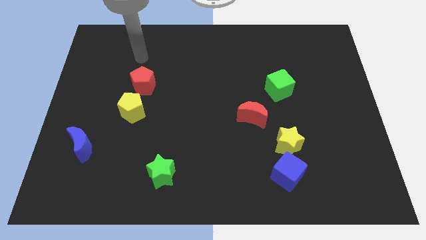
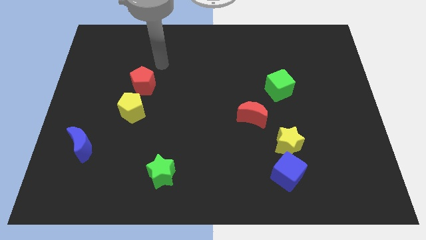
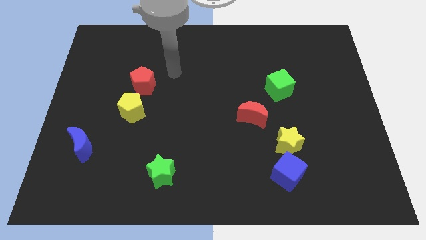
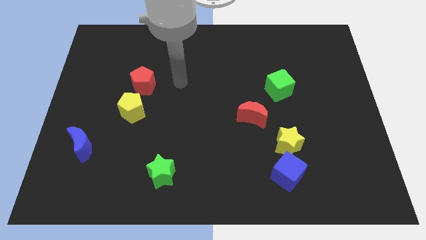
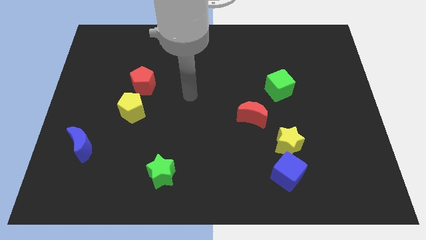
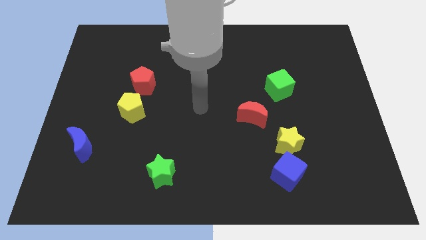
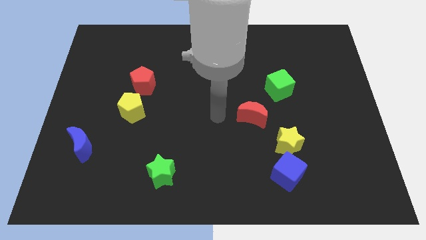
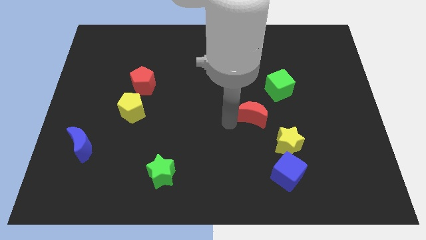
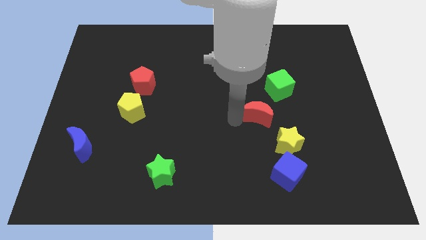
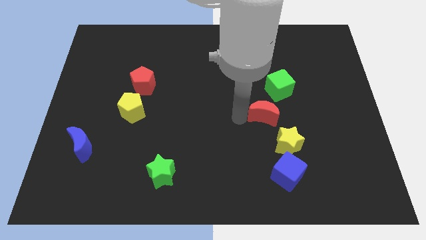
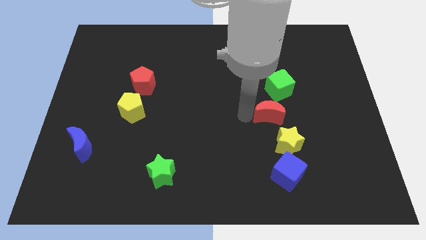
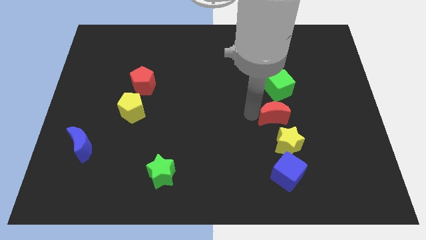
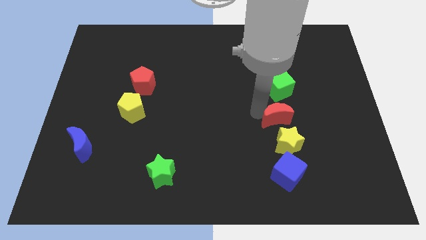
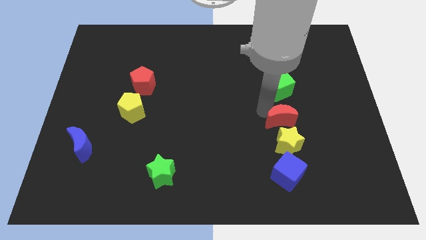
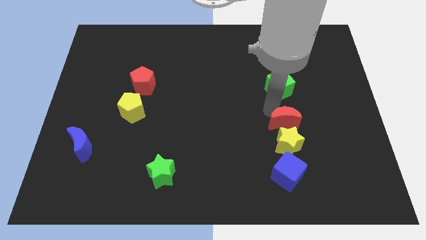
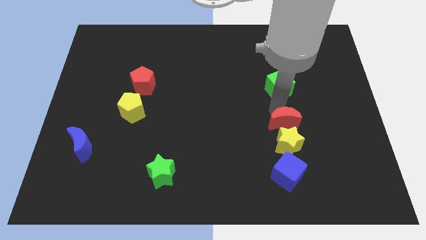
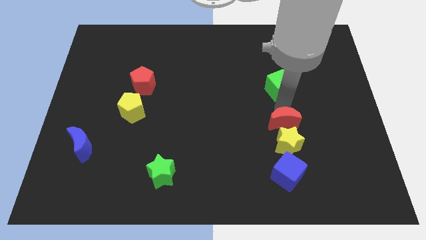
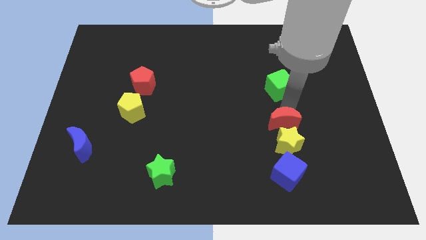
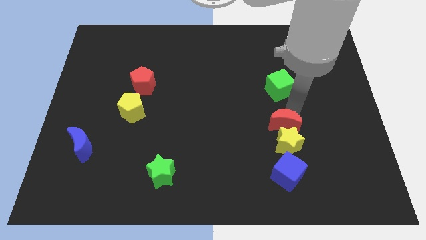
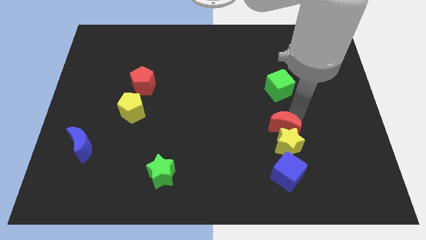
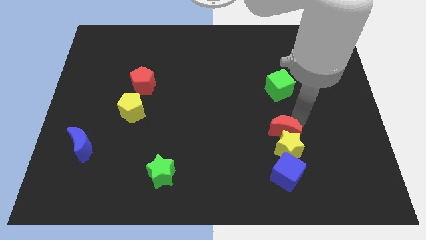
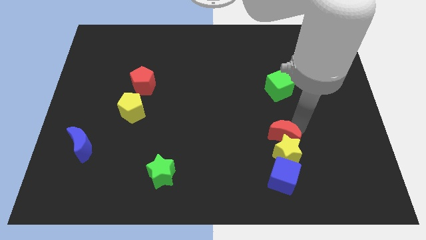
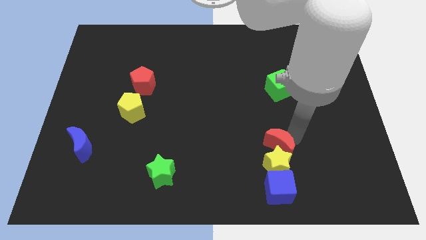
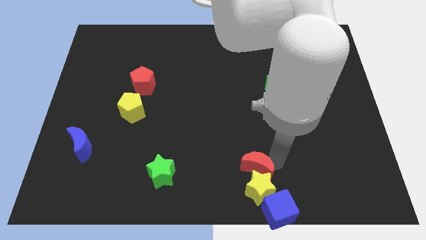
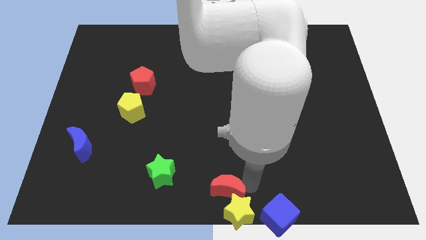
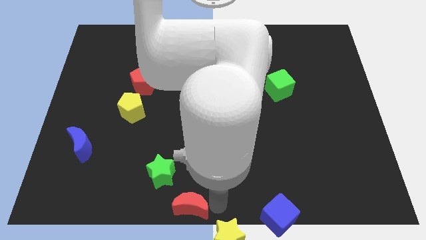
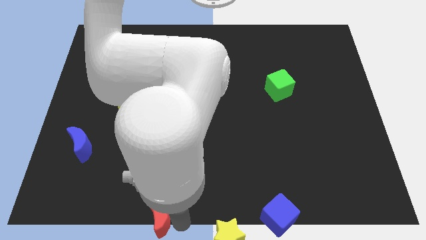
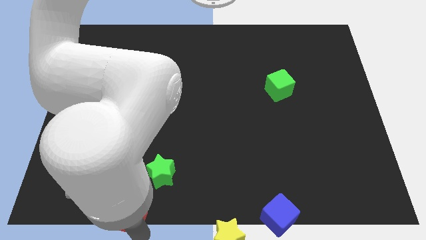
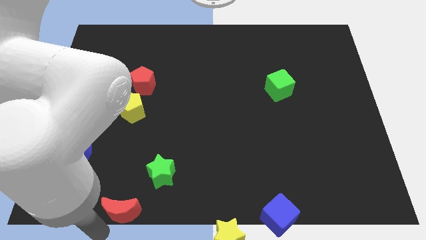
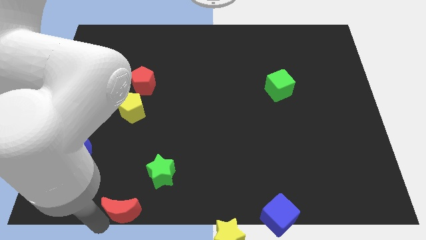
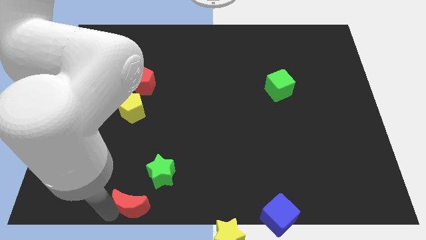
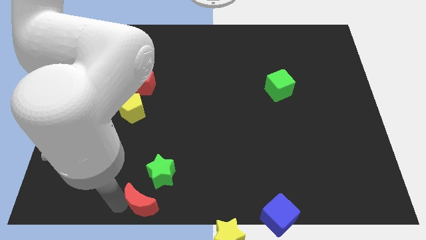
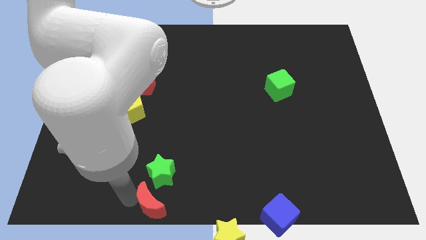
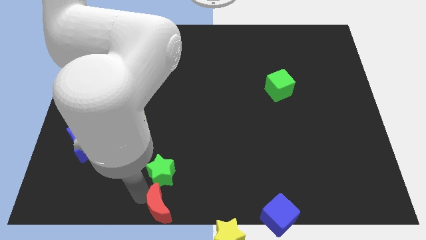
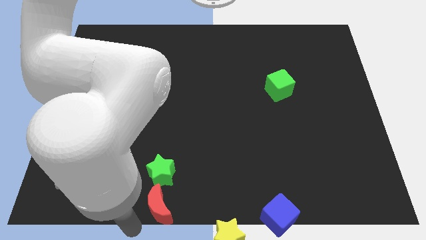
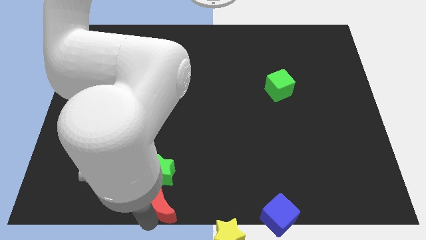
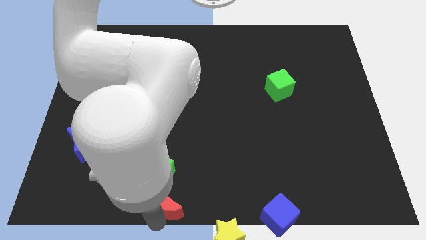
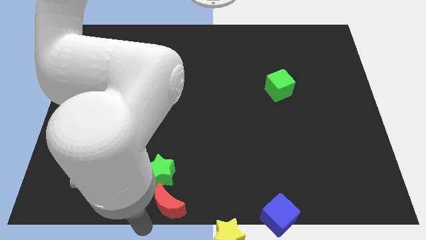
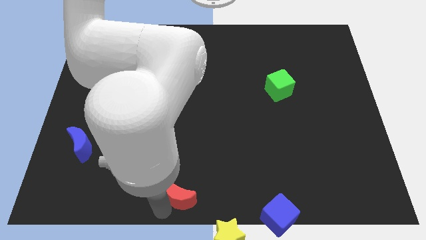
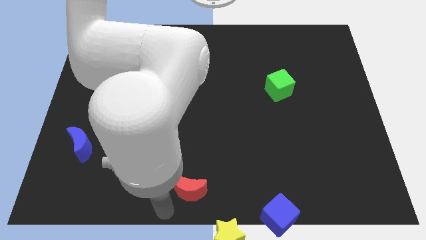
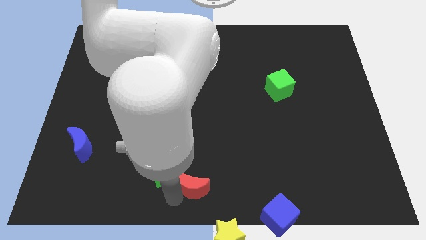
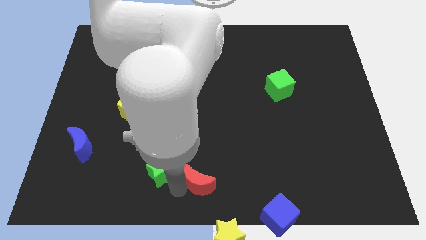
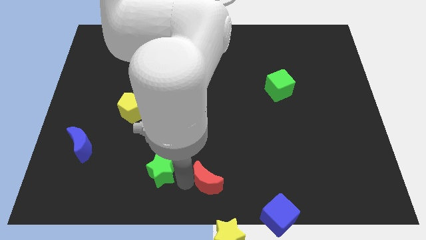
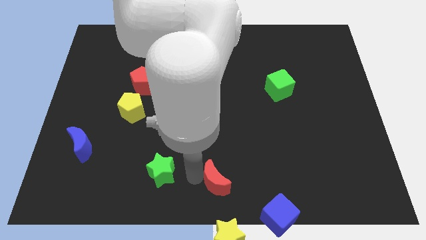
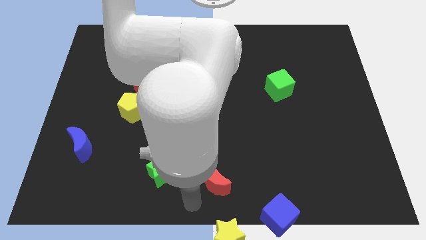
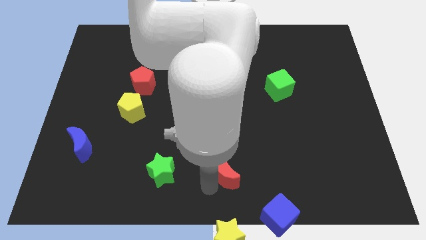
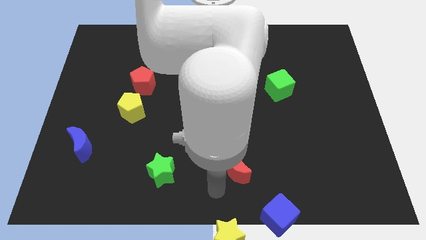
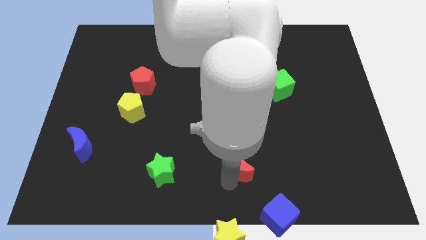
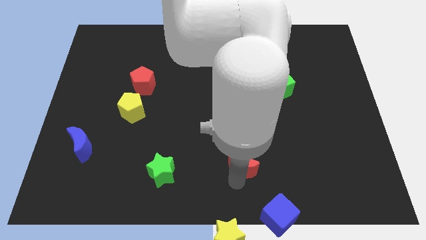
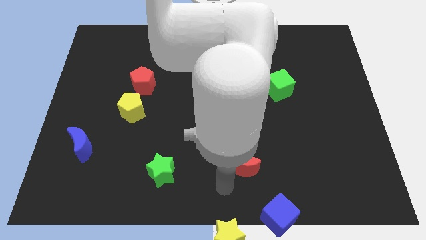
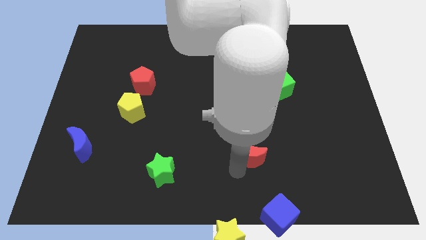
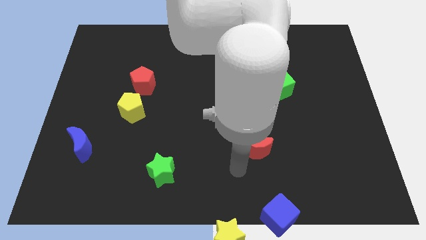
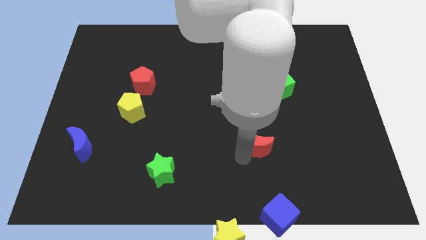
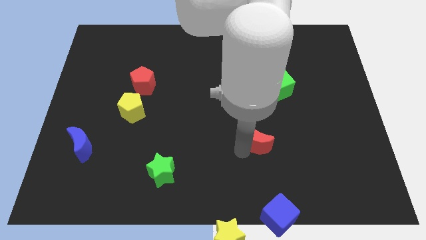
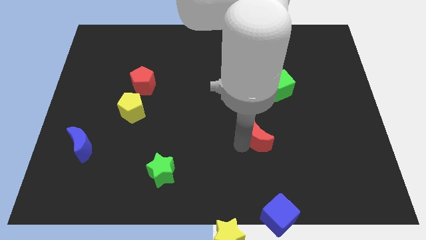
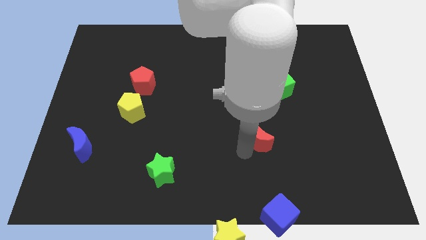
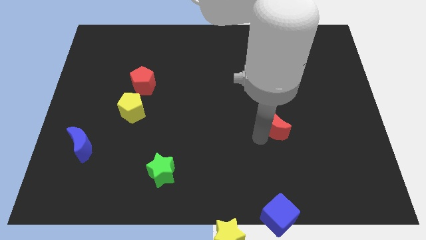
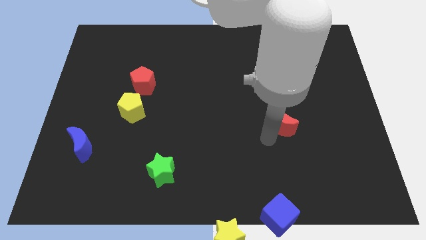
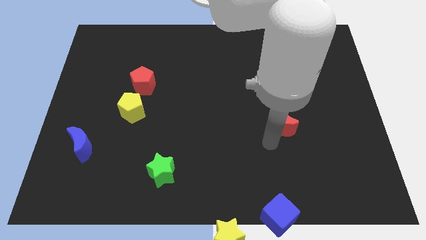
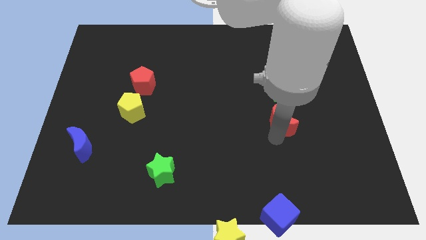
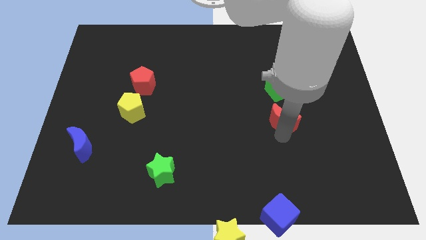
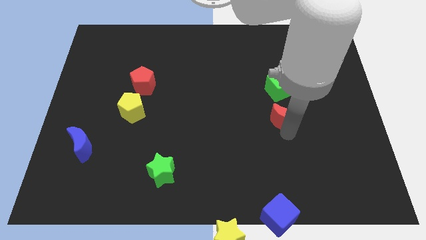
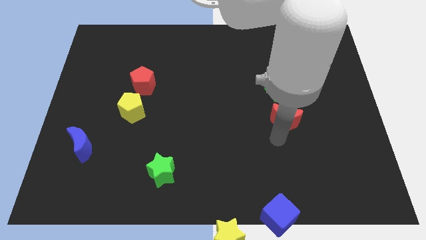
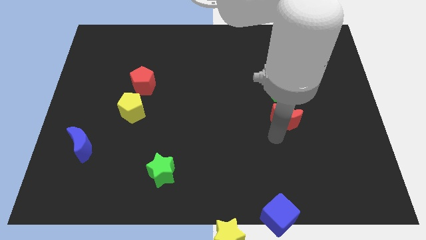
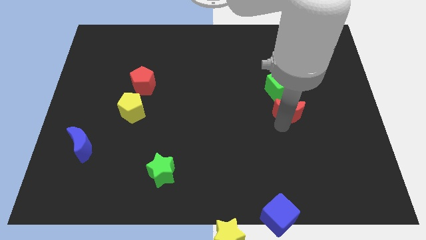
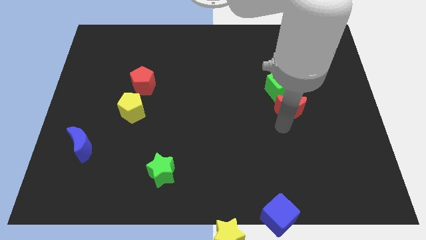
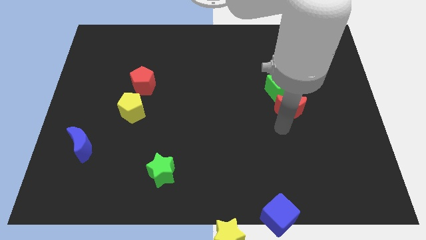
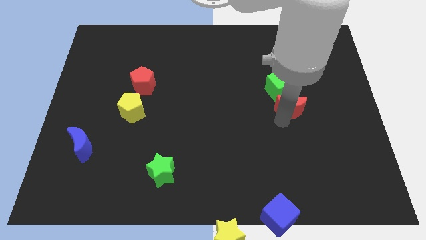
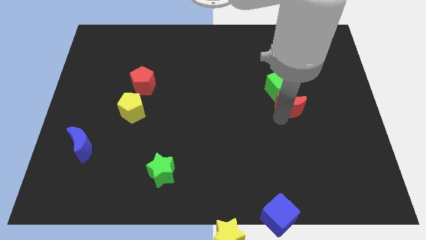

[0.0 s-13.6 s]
push the red moon a little upwards and to the right diagonally

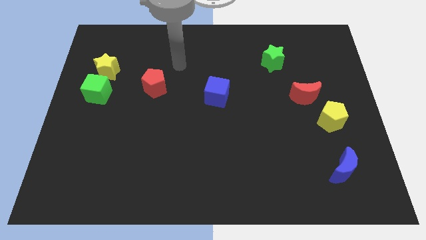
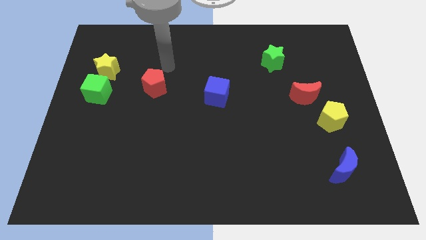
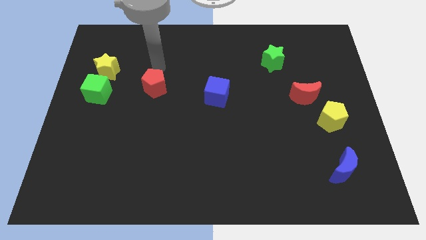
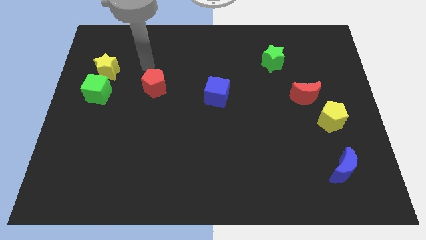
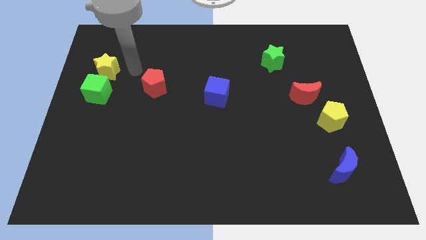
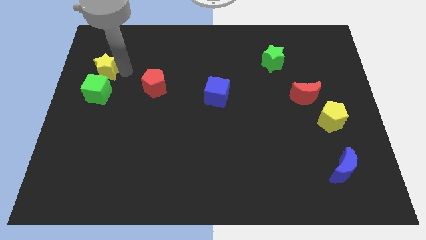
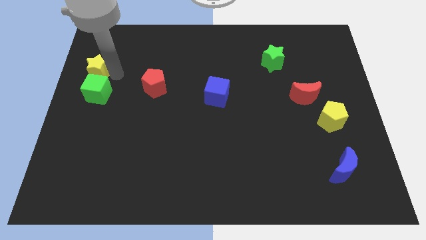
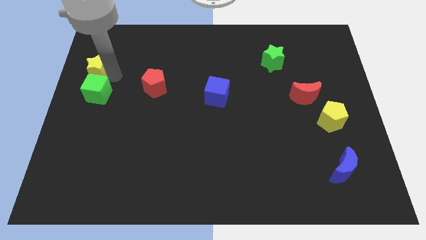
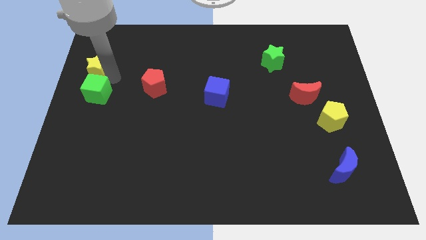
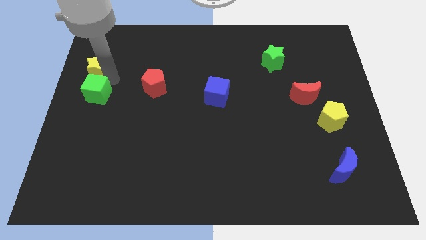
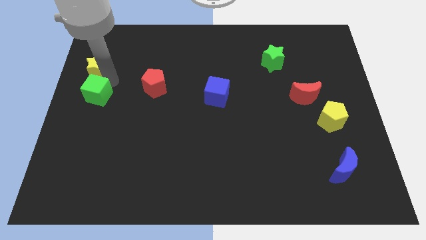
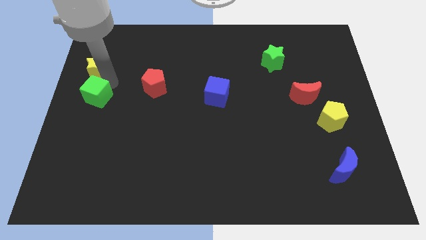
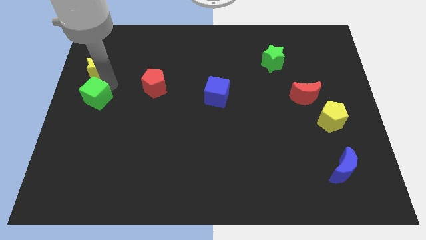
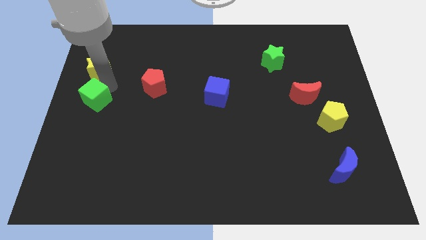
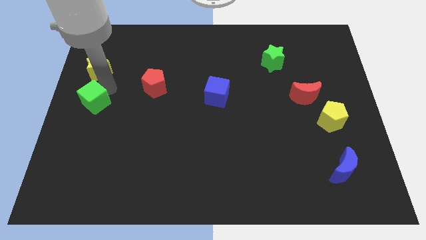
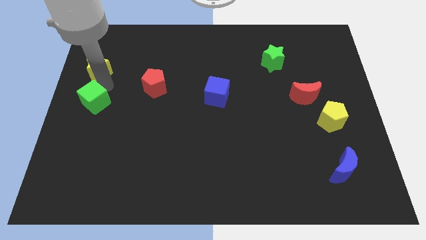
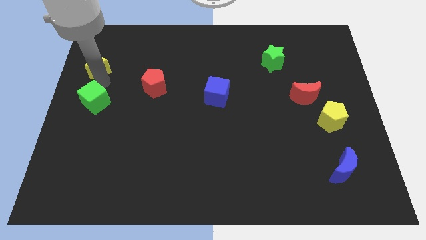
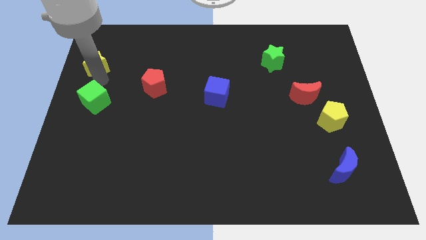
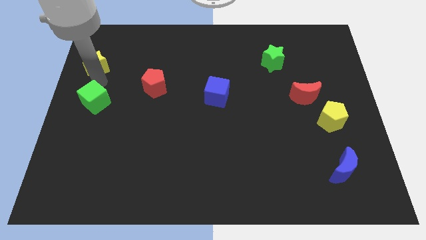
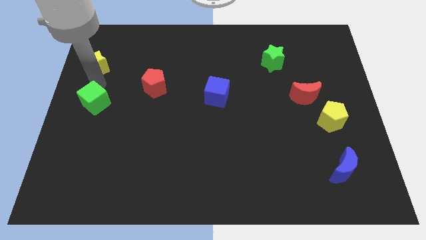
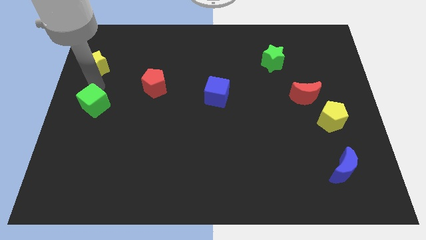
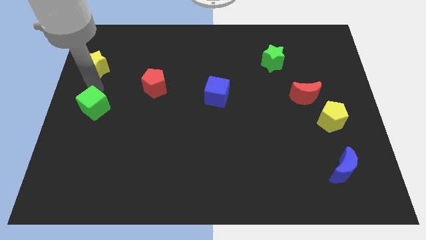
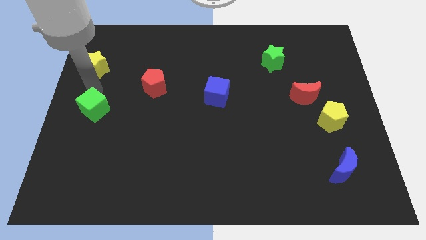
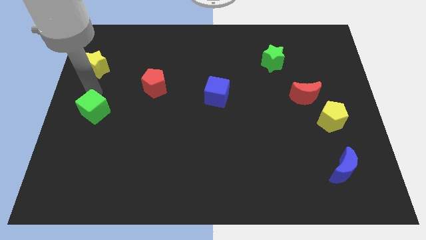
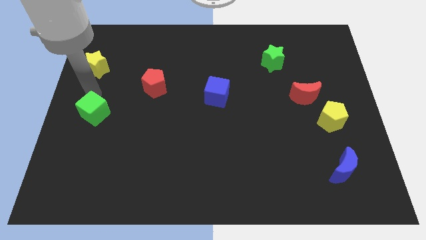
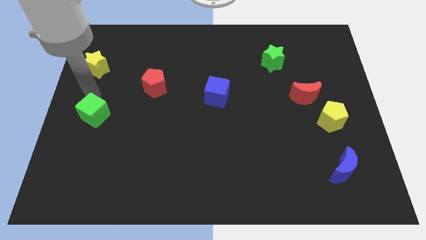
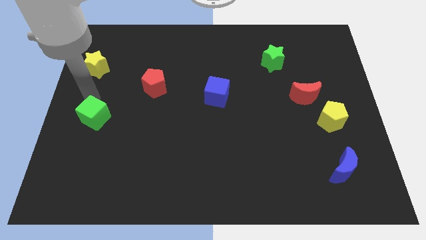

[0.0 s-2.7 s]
slide the green cube down a little bit
